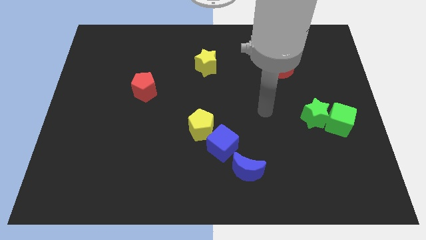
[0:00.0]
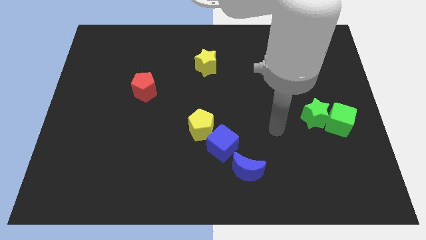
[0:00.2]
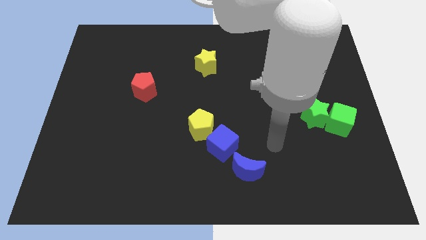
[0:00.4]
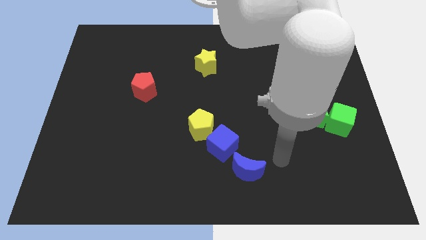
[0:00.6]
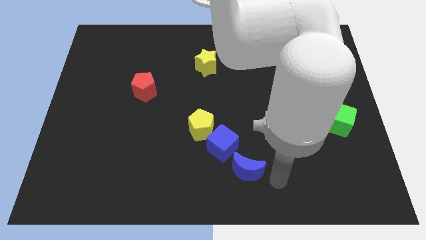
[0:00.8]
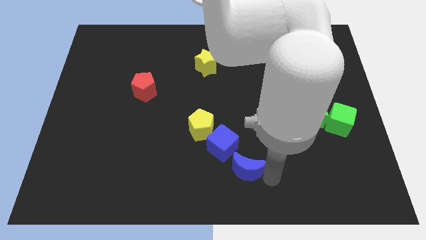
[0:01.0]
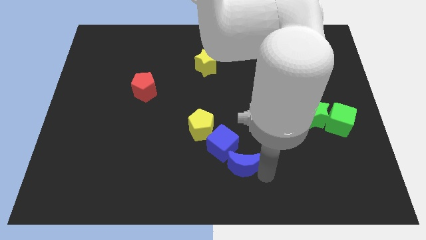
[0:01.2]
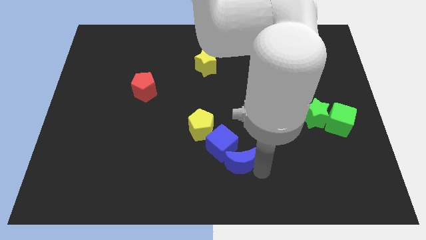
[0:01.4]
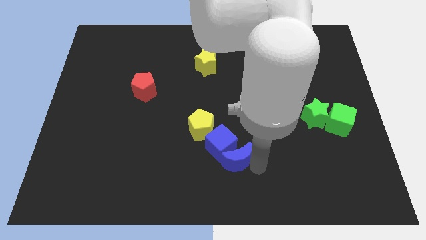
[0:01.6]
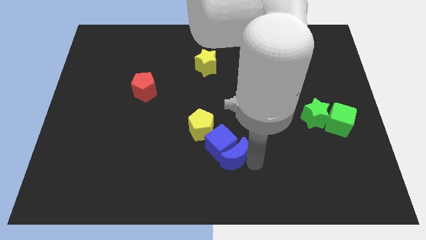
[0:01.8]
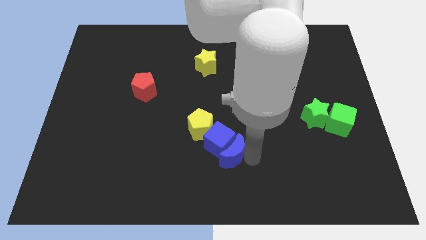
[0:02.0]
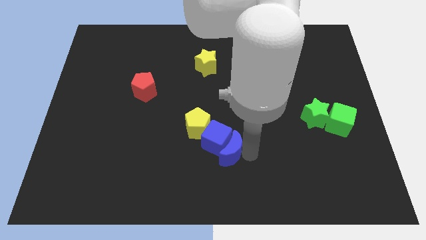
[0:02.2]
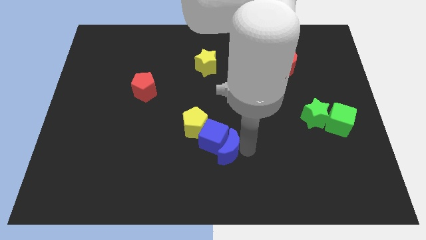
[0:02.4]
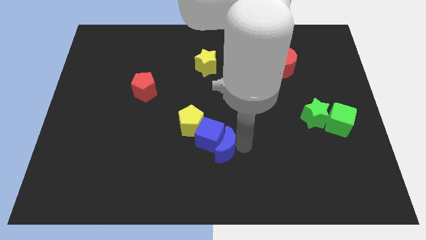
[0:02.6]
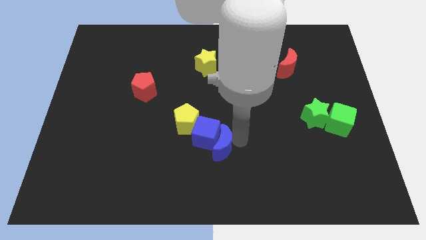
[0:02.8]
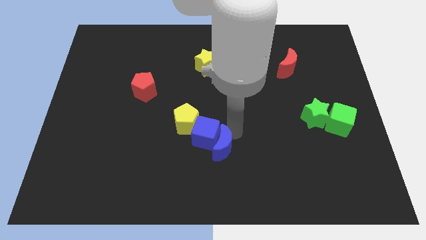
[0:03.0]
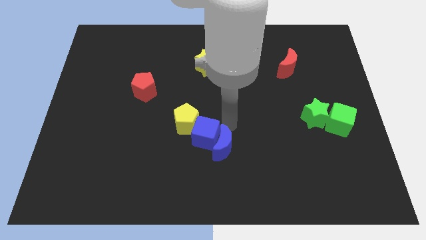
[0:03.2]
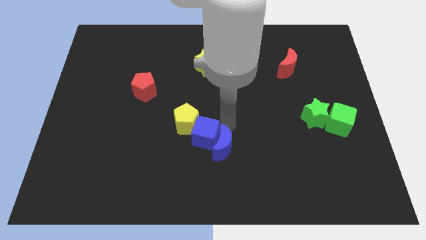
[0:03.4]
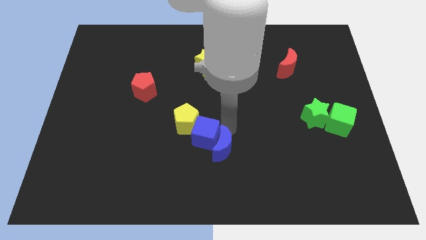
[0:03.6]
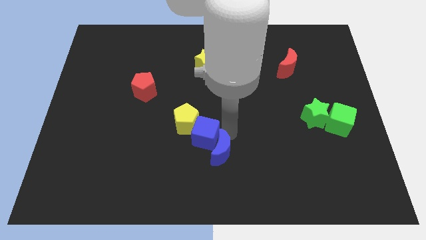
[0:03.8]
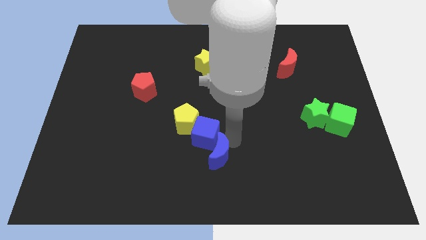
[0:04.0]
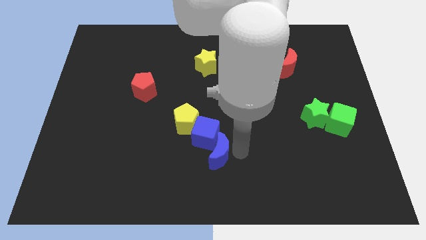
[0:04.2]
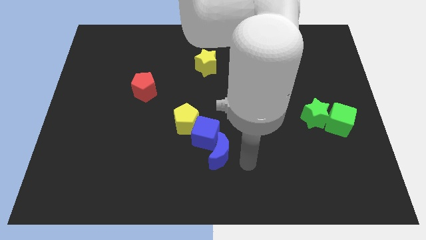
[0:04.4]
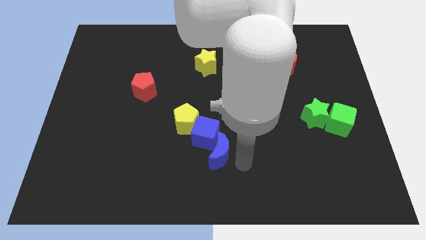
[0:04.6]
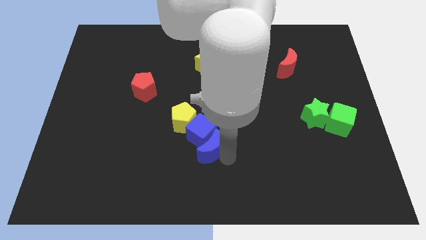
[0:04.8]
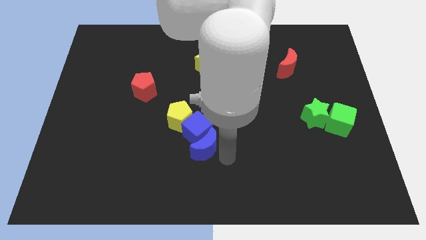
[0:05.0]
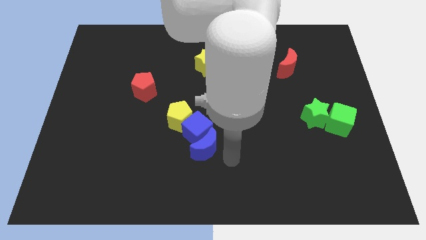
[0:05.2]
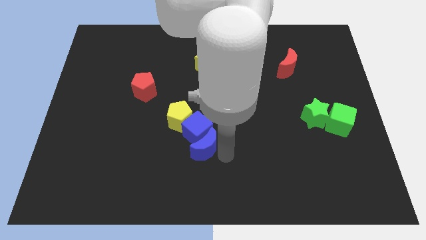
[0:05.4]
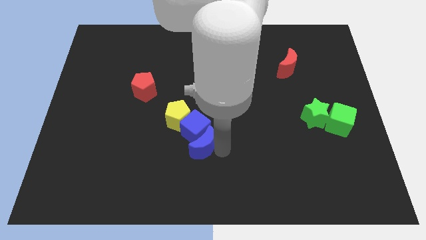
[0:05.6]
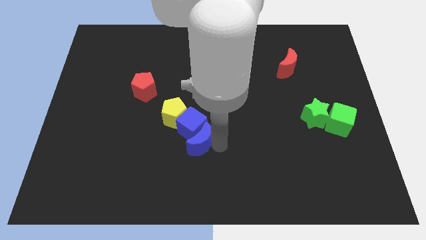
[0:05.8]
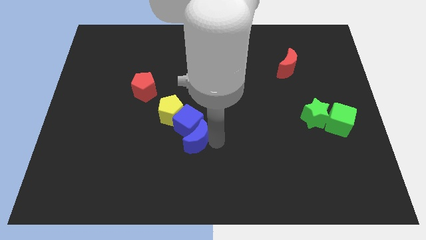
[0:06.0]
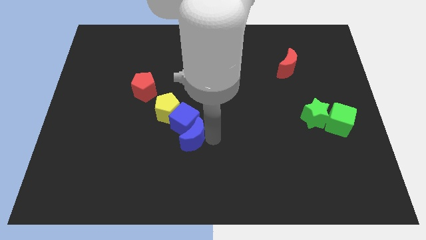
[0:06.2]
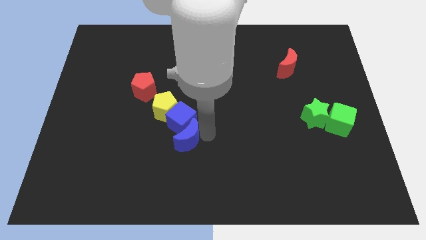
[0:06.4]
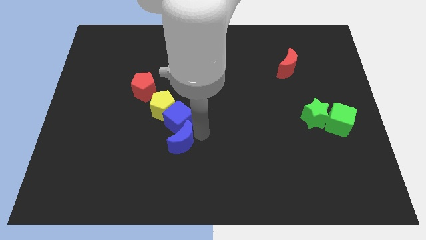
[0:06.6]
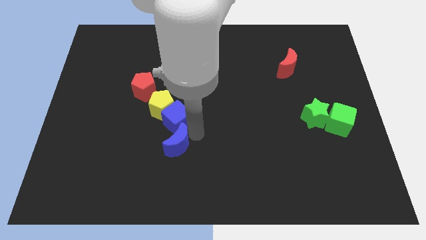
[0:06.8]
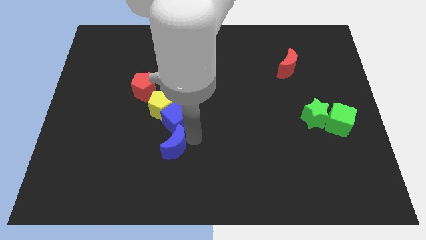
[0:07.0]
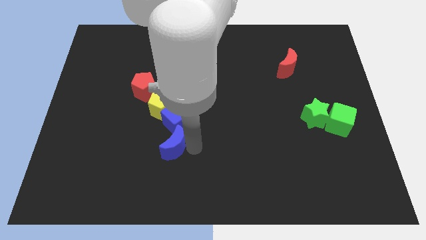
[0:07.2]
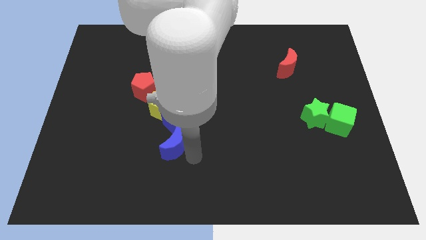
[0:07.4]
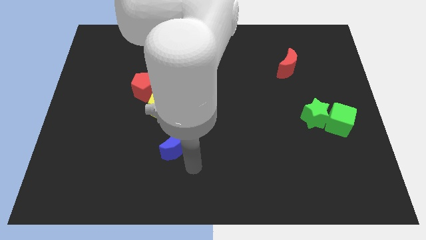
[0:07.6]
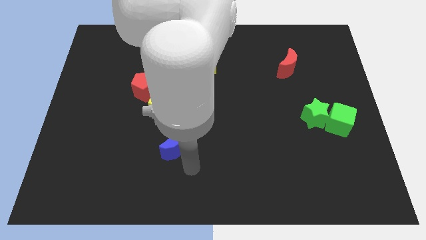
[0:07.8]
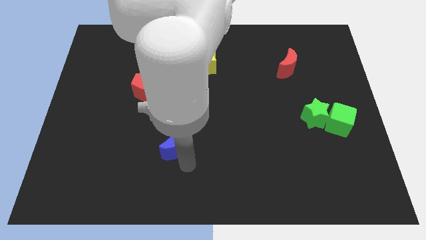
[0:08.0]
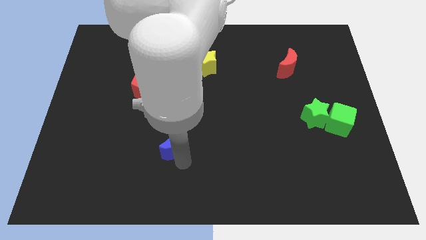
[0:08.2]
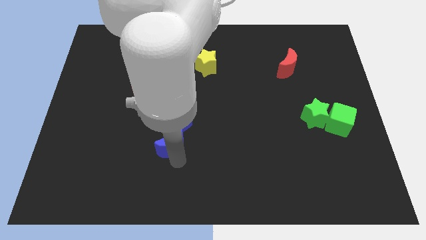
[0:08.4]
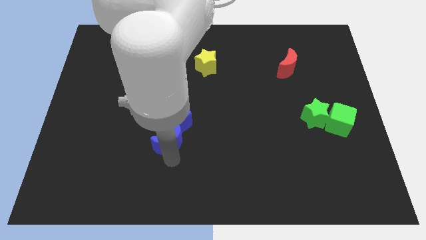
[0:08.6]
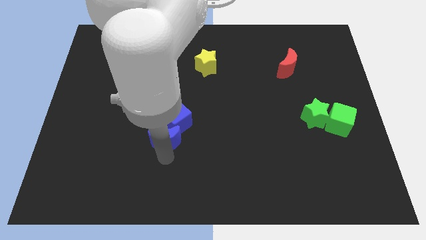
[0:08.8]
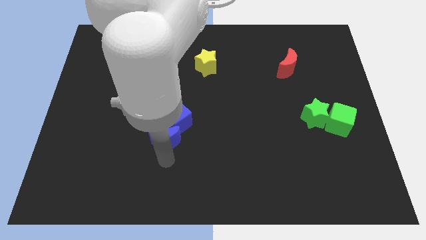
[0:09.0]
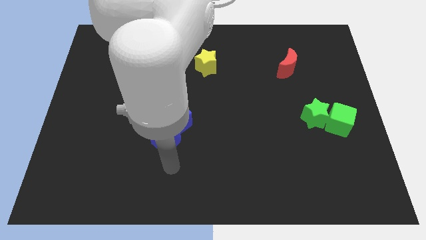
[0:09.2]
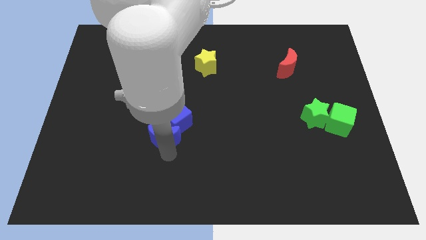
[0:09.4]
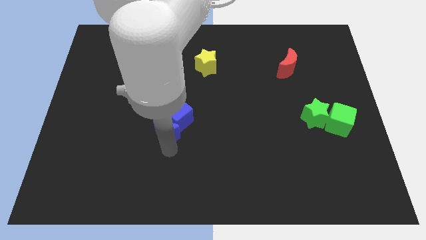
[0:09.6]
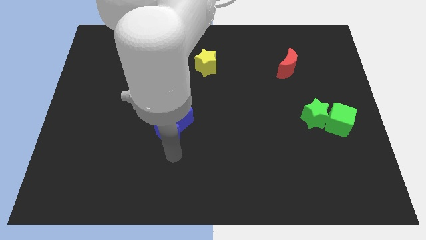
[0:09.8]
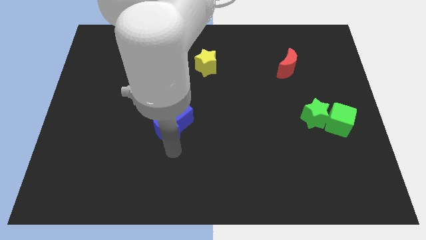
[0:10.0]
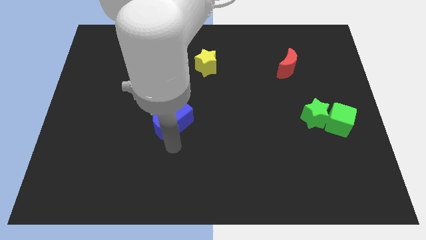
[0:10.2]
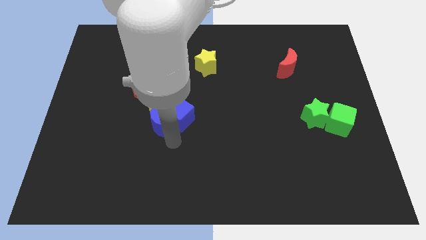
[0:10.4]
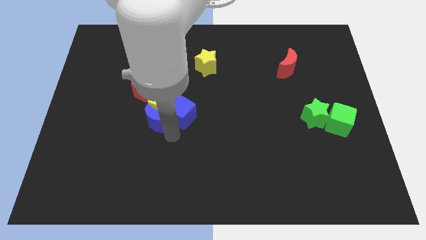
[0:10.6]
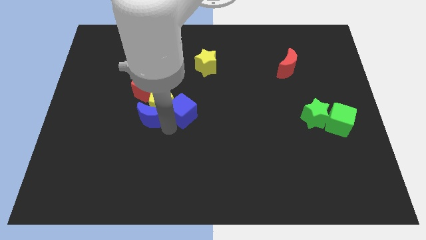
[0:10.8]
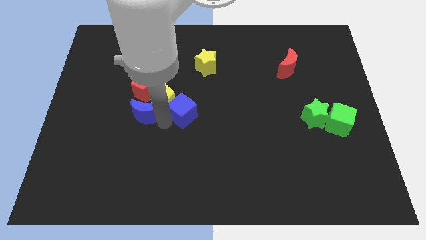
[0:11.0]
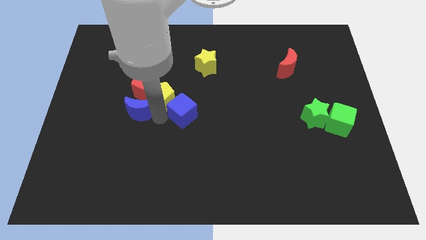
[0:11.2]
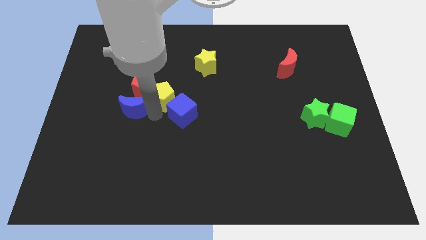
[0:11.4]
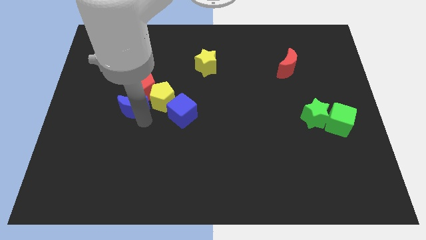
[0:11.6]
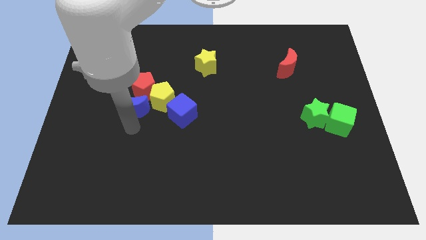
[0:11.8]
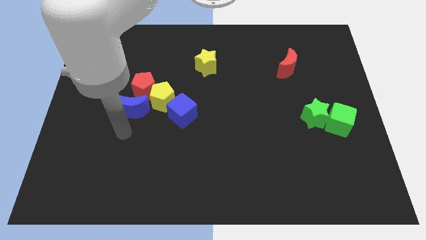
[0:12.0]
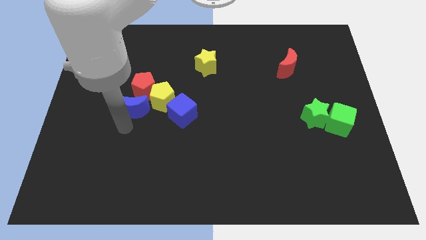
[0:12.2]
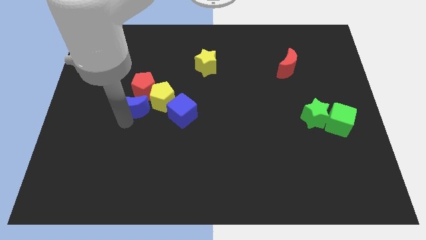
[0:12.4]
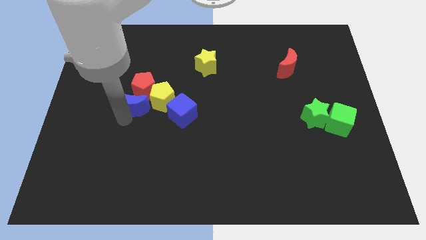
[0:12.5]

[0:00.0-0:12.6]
put the blue moon to the red pentagon

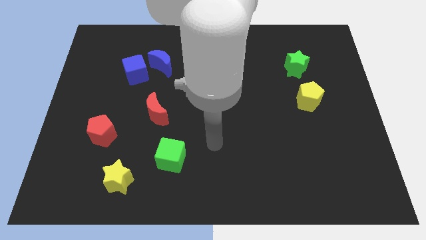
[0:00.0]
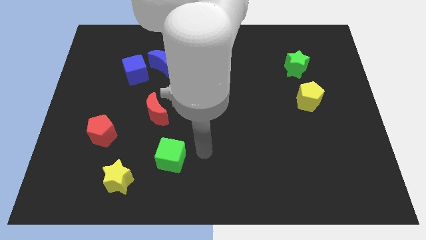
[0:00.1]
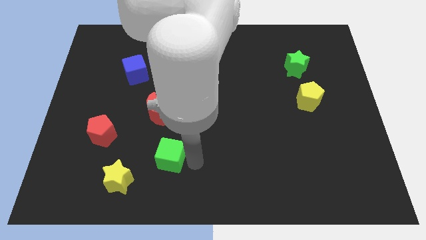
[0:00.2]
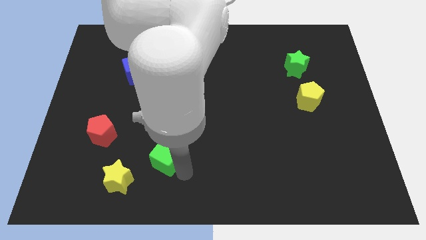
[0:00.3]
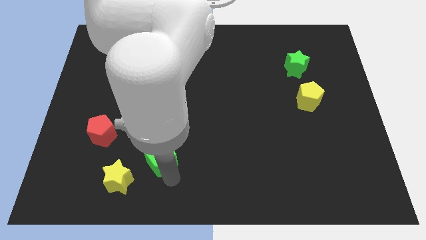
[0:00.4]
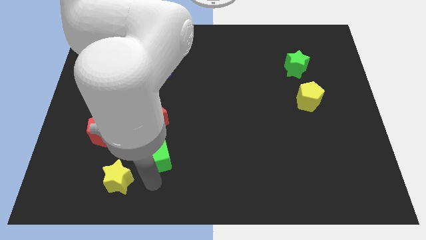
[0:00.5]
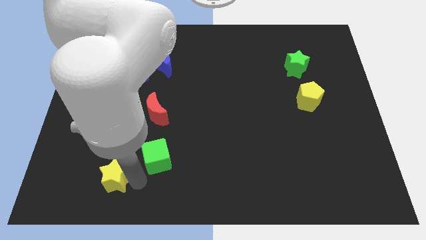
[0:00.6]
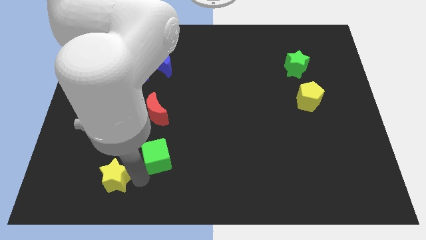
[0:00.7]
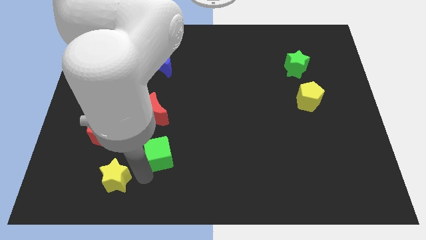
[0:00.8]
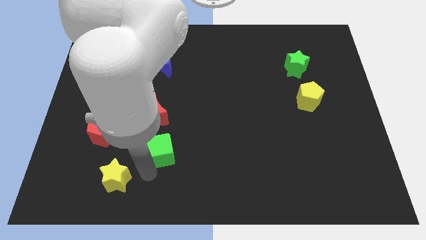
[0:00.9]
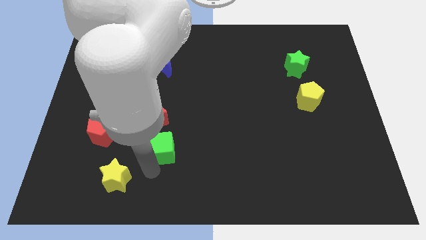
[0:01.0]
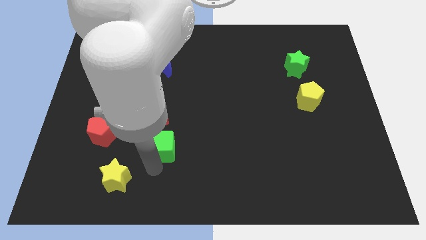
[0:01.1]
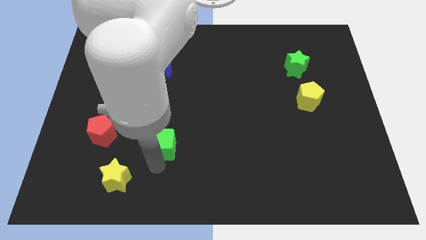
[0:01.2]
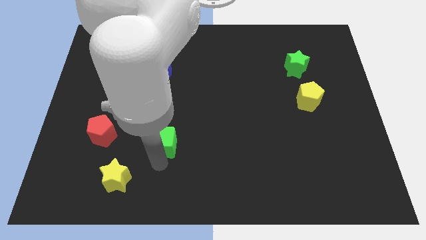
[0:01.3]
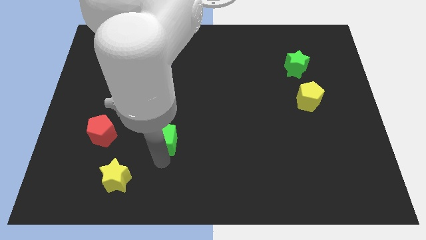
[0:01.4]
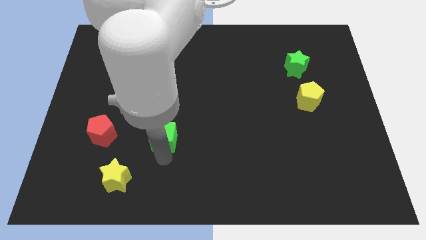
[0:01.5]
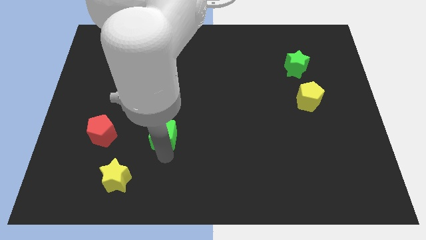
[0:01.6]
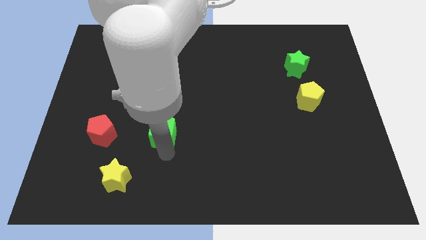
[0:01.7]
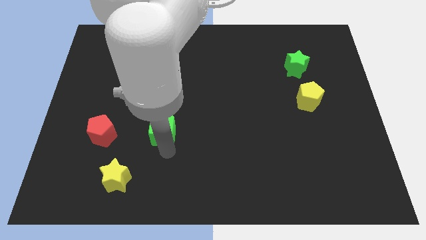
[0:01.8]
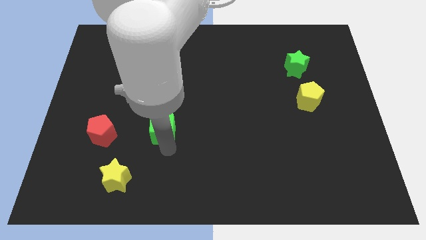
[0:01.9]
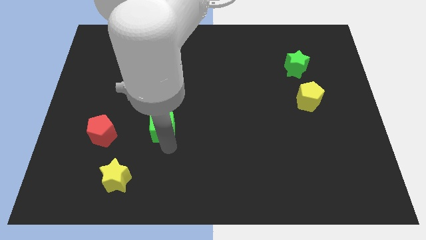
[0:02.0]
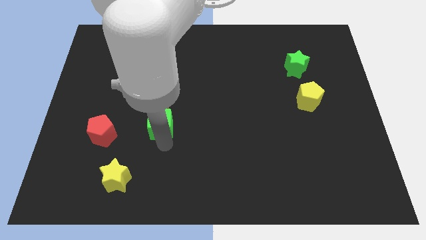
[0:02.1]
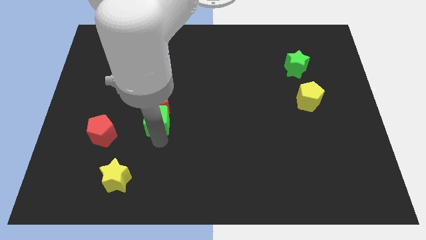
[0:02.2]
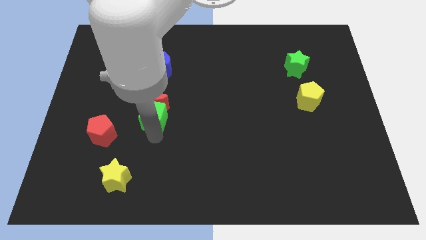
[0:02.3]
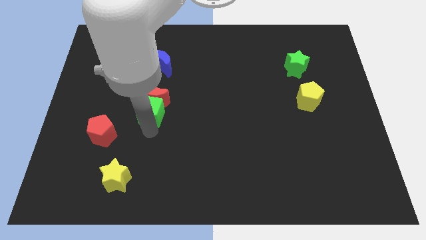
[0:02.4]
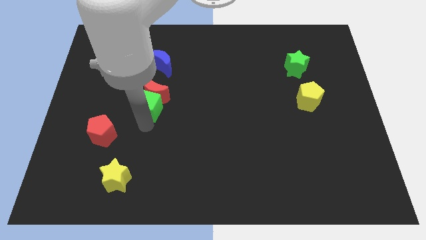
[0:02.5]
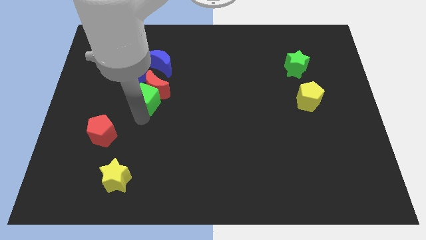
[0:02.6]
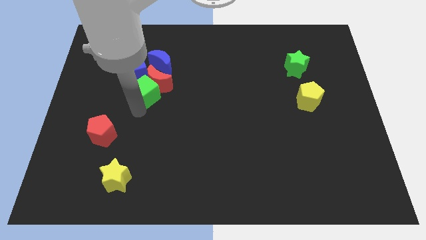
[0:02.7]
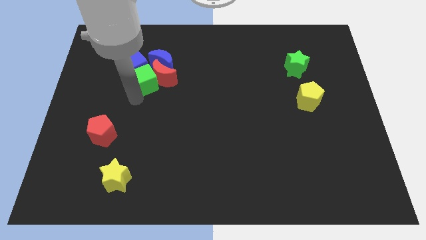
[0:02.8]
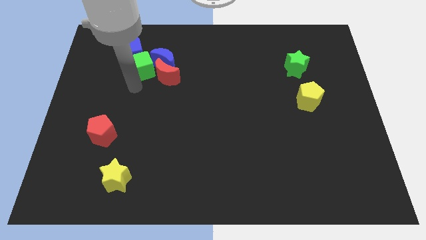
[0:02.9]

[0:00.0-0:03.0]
put the green cube next to the blue moon
